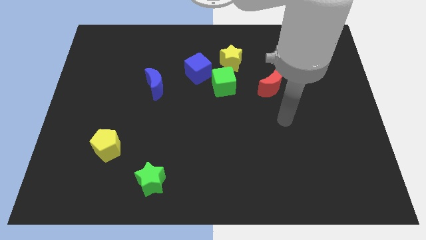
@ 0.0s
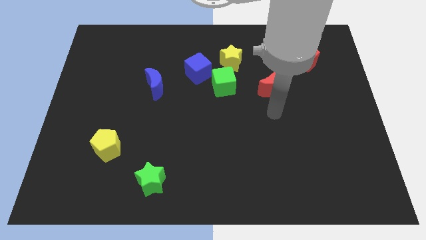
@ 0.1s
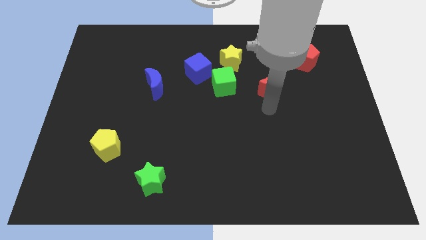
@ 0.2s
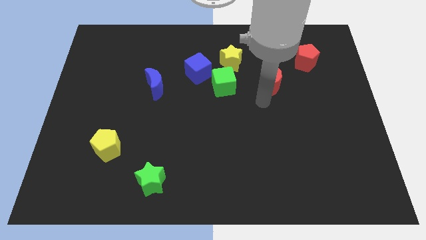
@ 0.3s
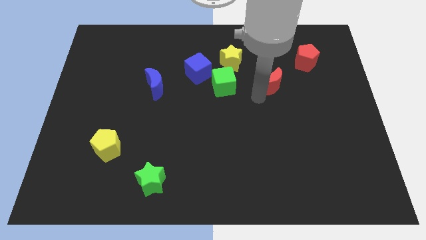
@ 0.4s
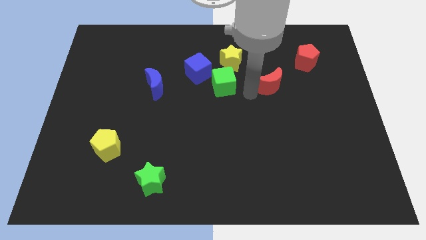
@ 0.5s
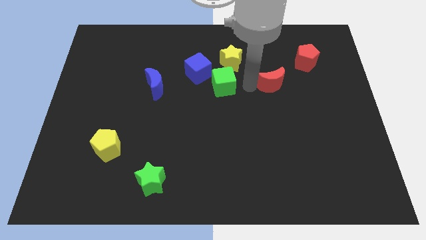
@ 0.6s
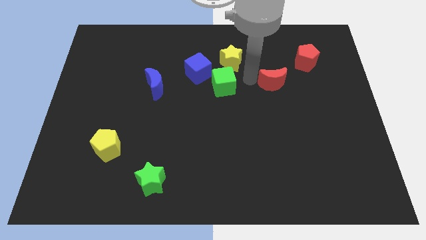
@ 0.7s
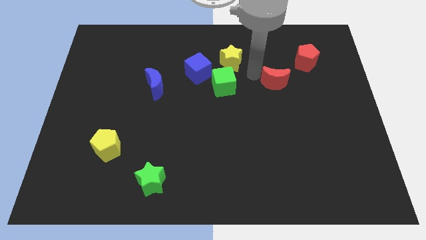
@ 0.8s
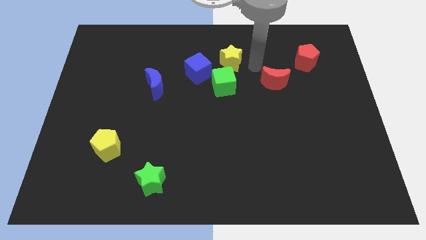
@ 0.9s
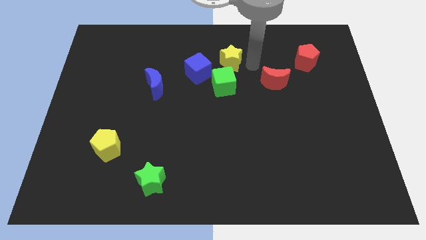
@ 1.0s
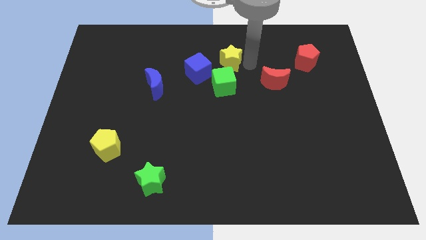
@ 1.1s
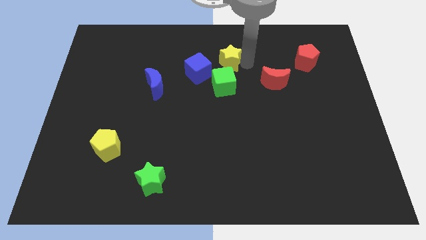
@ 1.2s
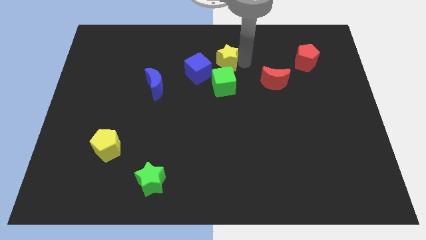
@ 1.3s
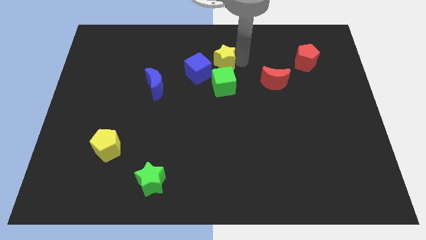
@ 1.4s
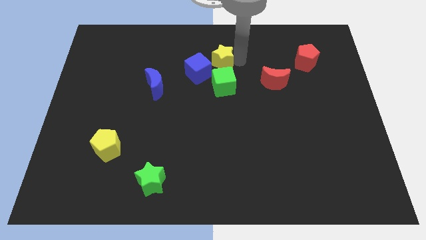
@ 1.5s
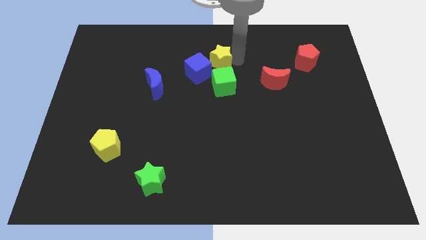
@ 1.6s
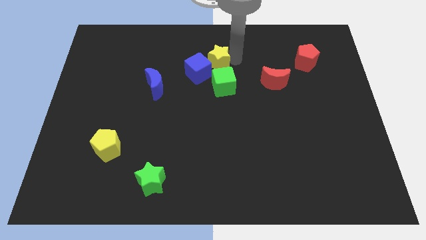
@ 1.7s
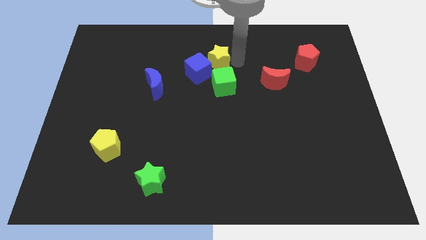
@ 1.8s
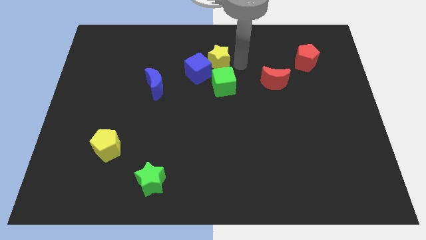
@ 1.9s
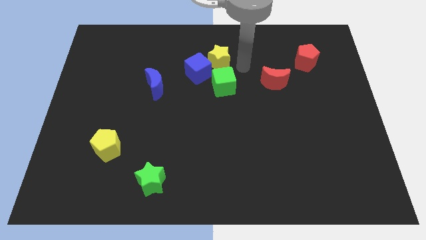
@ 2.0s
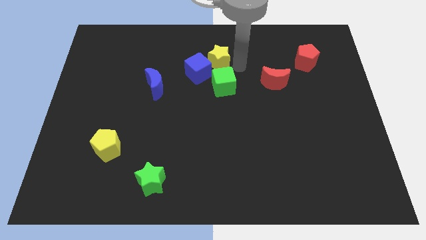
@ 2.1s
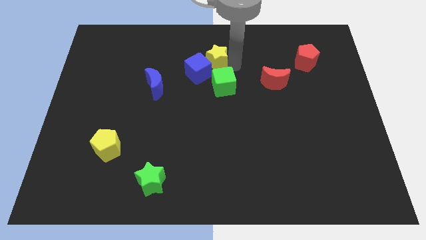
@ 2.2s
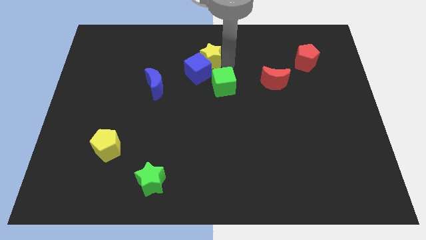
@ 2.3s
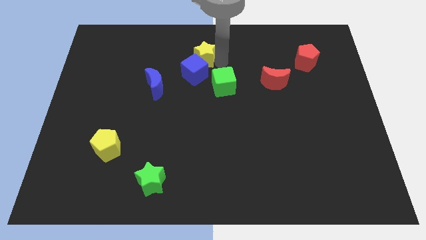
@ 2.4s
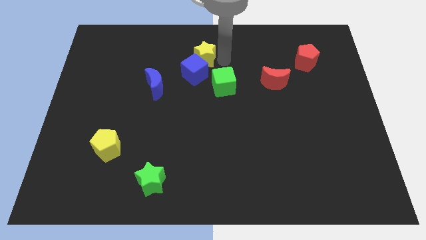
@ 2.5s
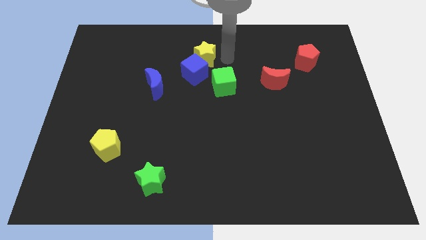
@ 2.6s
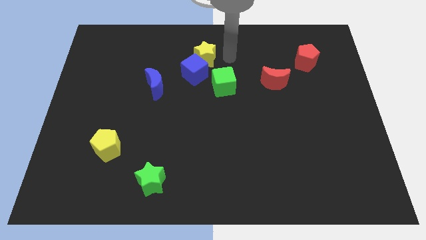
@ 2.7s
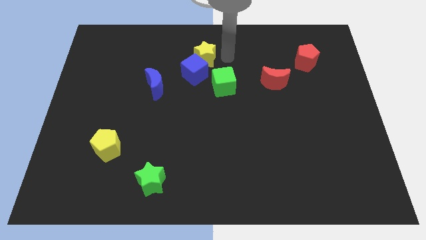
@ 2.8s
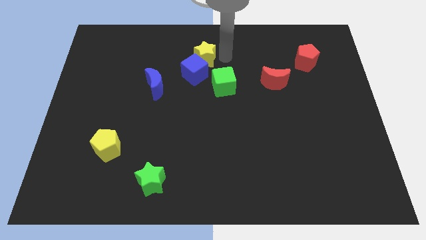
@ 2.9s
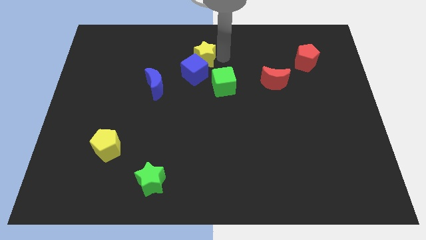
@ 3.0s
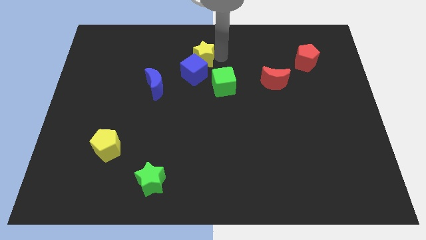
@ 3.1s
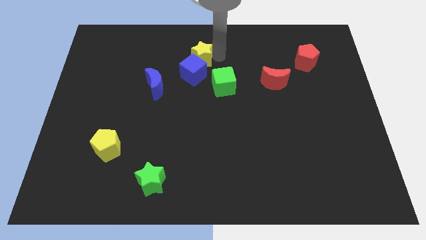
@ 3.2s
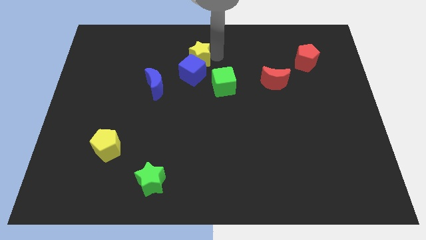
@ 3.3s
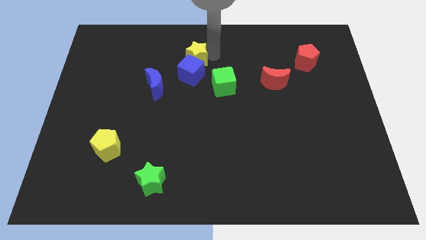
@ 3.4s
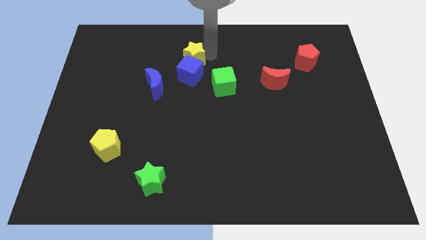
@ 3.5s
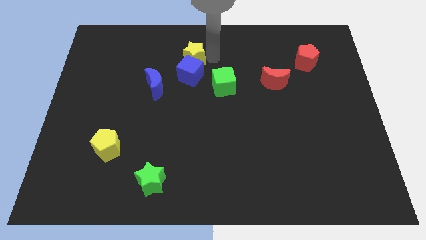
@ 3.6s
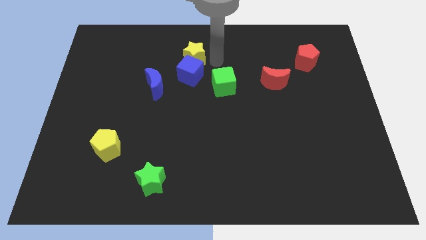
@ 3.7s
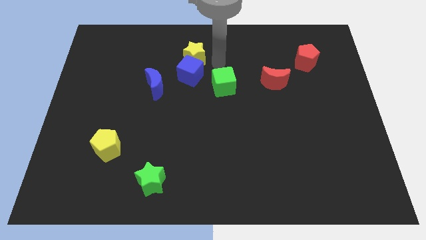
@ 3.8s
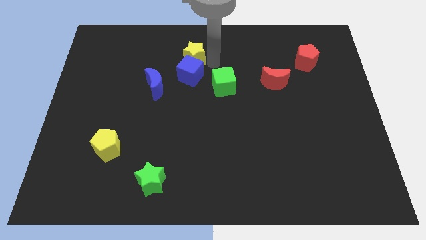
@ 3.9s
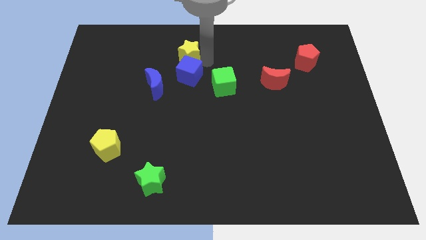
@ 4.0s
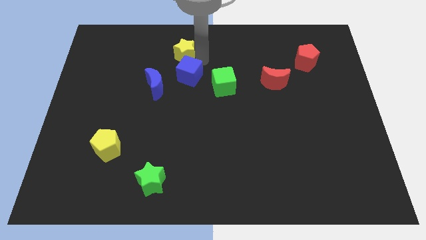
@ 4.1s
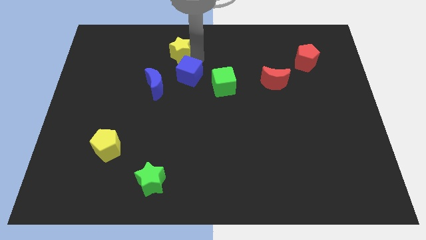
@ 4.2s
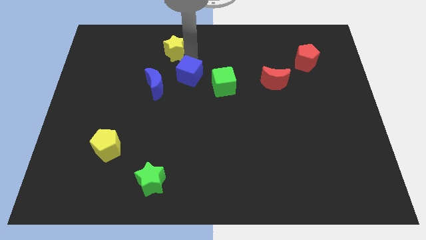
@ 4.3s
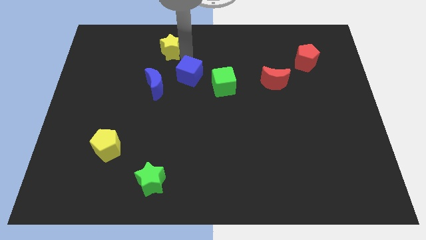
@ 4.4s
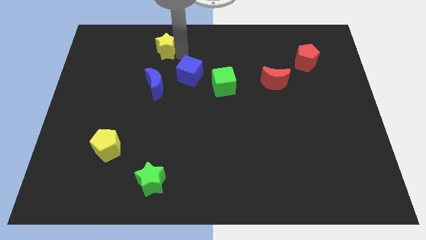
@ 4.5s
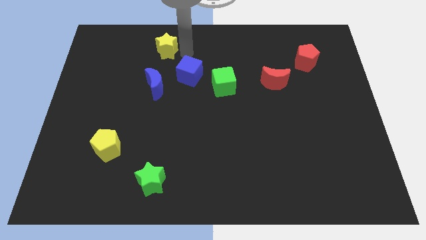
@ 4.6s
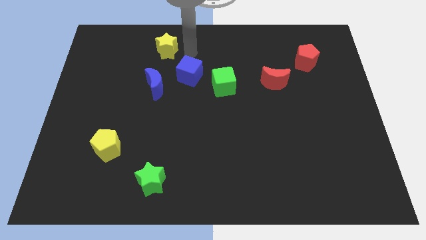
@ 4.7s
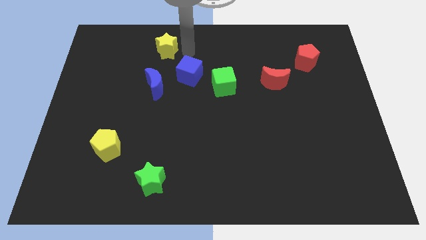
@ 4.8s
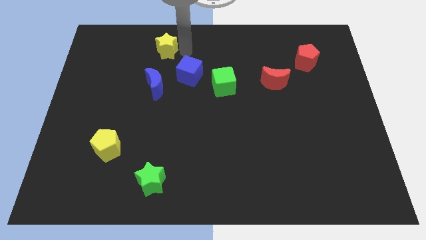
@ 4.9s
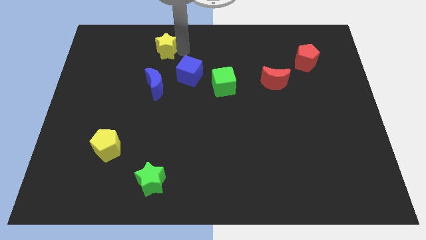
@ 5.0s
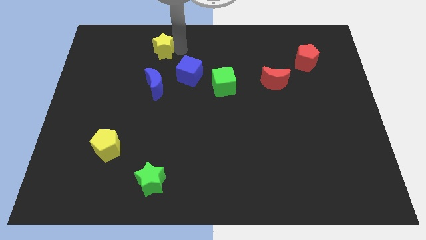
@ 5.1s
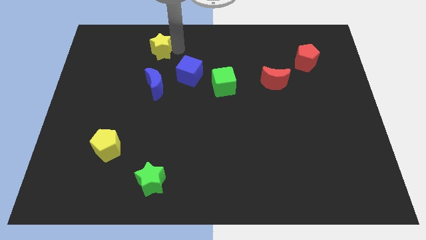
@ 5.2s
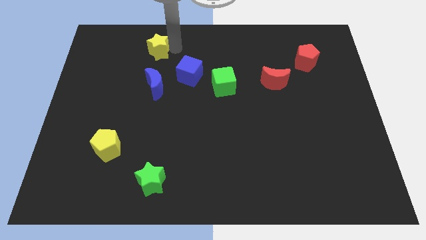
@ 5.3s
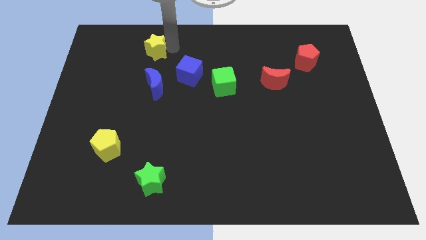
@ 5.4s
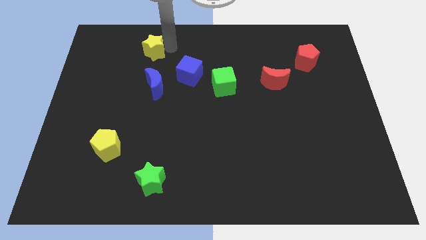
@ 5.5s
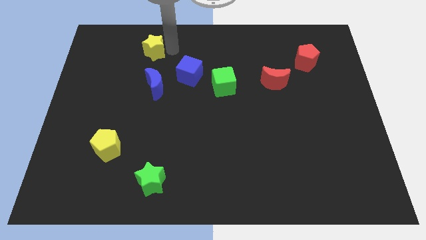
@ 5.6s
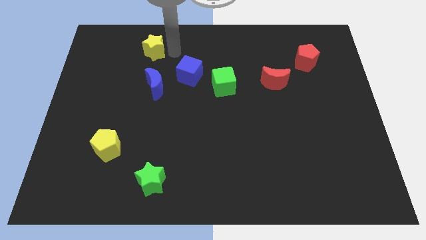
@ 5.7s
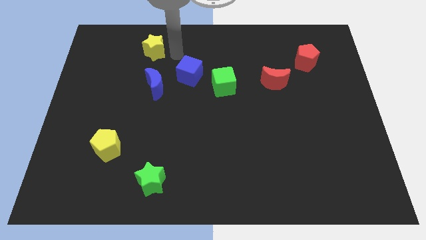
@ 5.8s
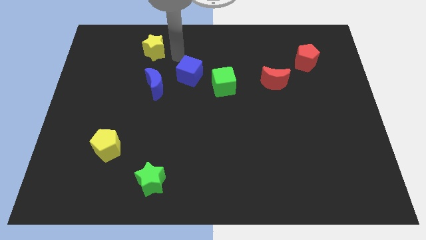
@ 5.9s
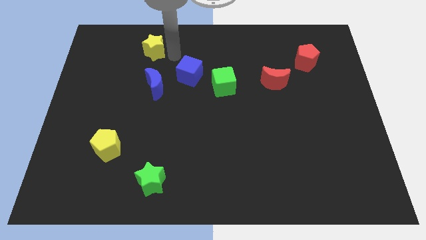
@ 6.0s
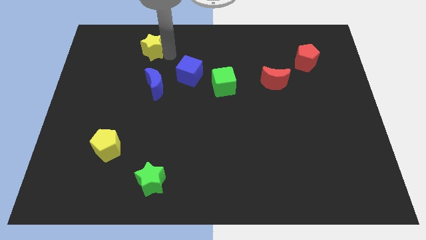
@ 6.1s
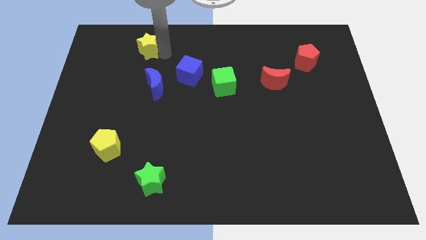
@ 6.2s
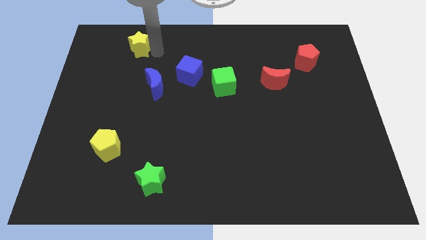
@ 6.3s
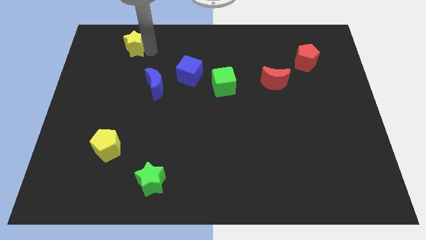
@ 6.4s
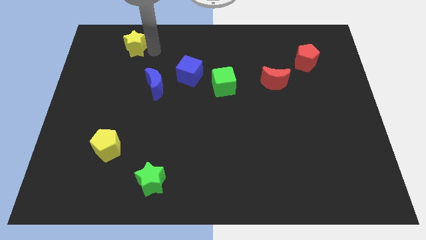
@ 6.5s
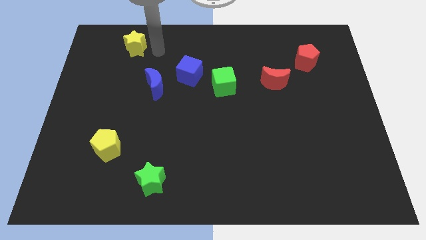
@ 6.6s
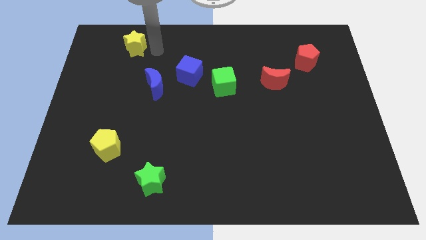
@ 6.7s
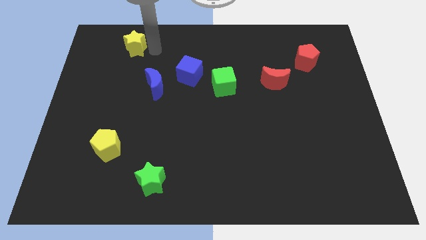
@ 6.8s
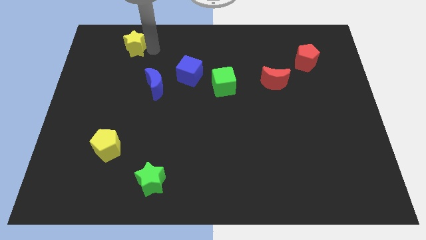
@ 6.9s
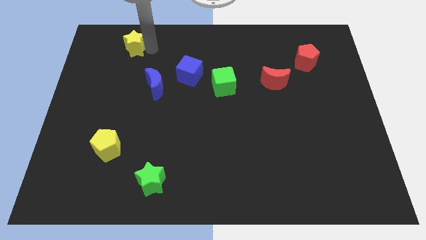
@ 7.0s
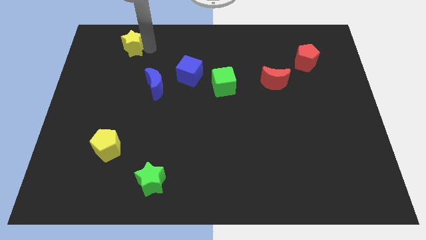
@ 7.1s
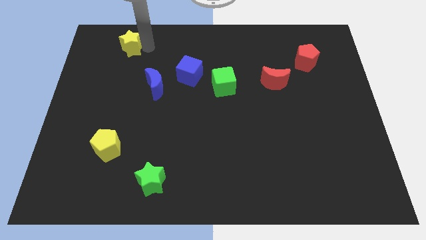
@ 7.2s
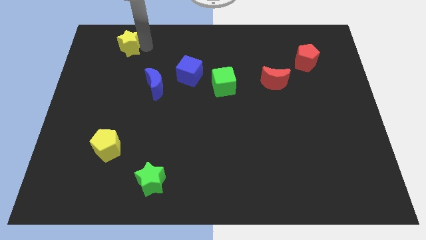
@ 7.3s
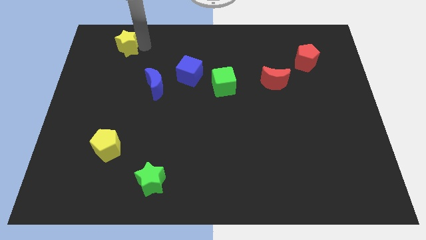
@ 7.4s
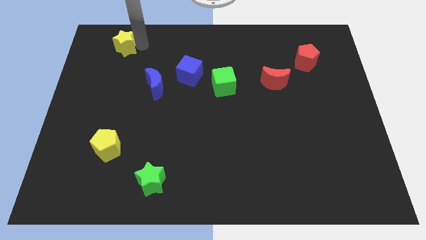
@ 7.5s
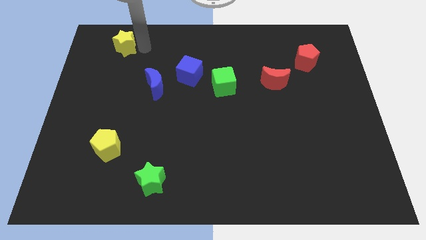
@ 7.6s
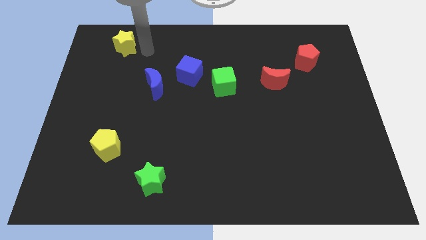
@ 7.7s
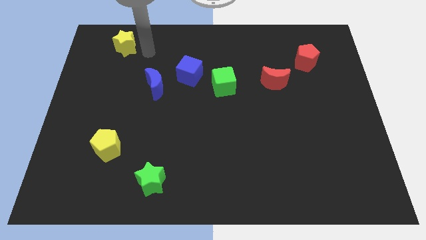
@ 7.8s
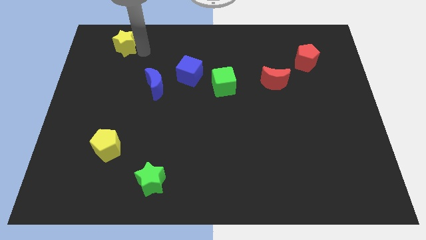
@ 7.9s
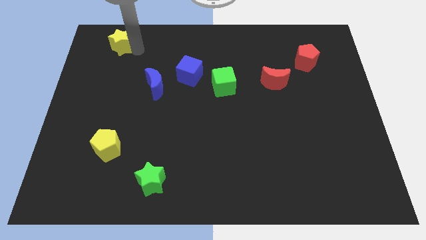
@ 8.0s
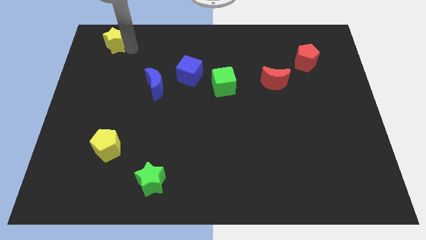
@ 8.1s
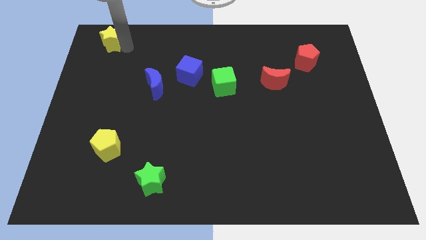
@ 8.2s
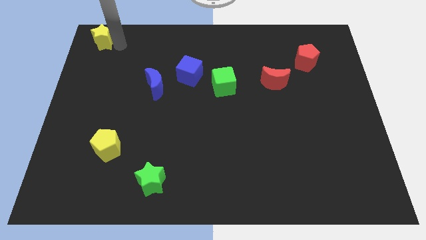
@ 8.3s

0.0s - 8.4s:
move the yellow star to the upper left corner
